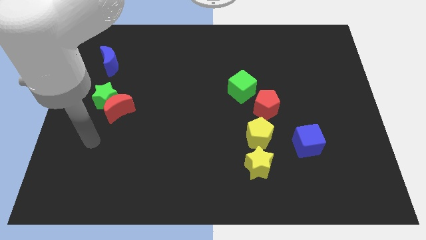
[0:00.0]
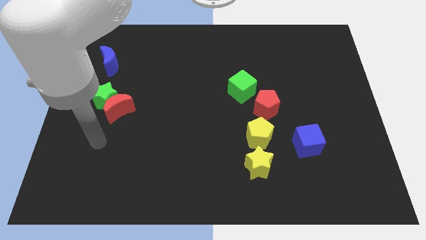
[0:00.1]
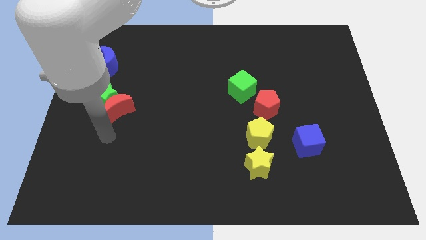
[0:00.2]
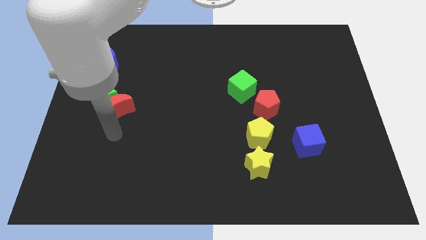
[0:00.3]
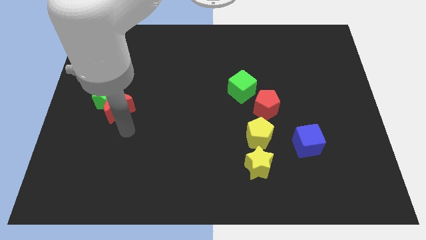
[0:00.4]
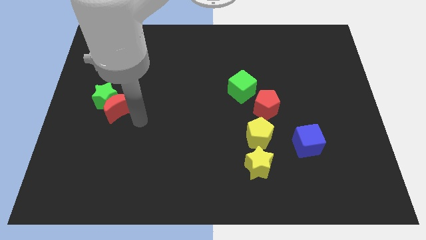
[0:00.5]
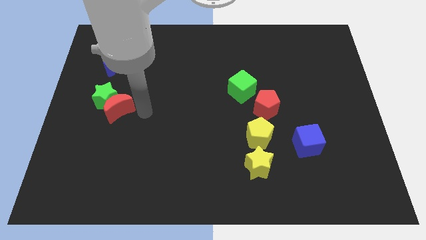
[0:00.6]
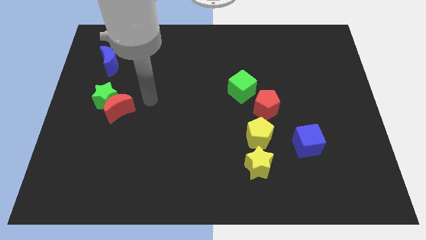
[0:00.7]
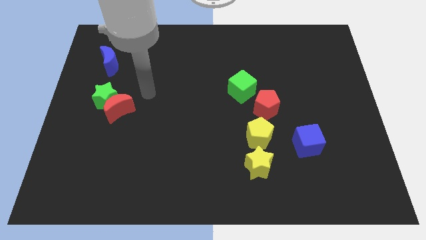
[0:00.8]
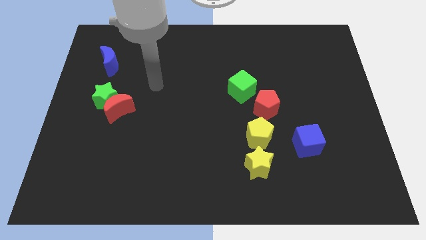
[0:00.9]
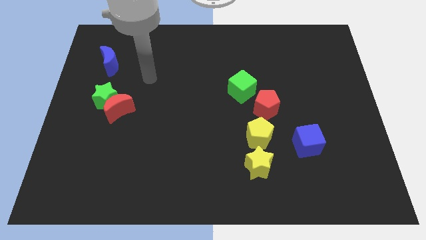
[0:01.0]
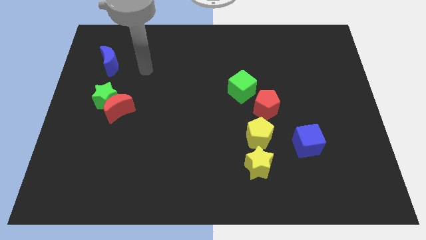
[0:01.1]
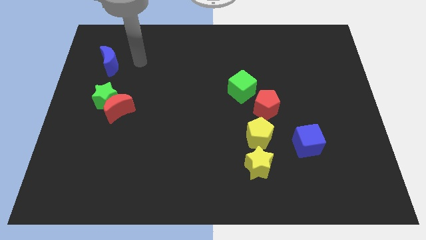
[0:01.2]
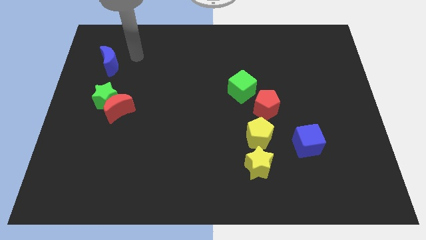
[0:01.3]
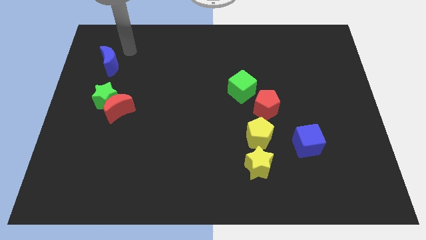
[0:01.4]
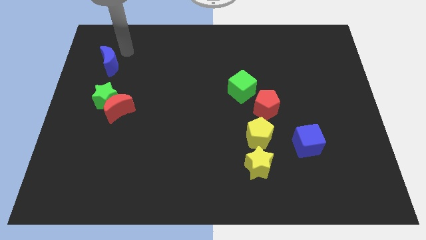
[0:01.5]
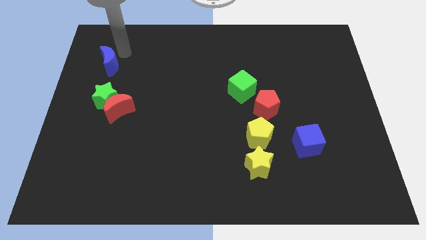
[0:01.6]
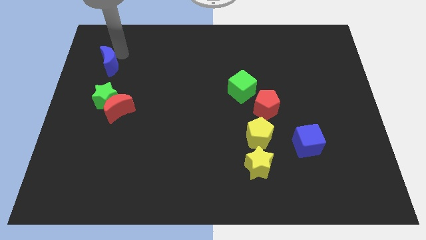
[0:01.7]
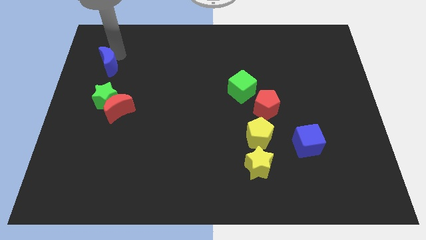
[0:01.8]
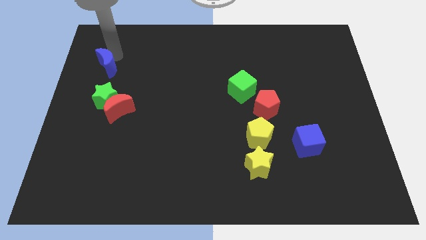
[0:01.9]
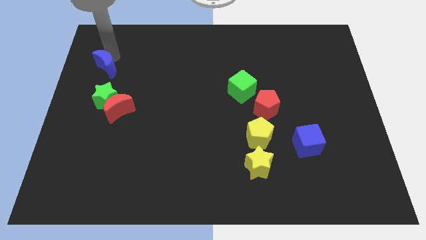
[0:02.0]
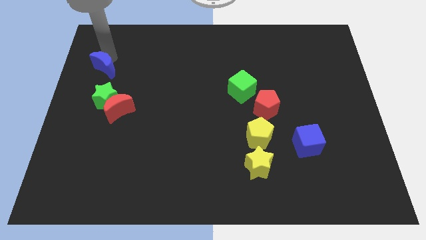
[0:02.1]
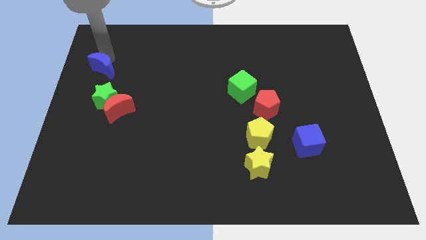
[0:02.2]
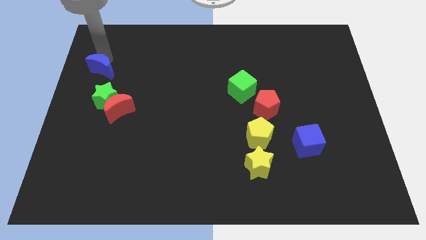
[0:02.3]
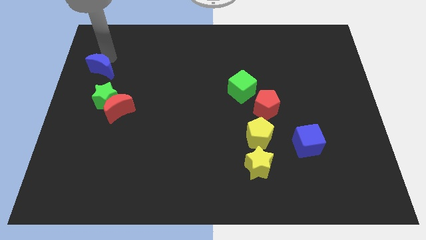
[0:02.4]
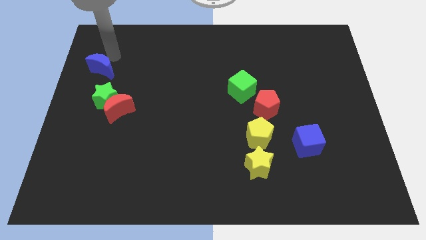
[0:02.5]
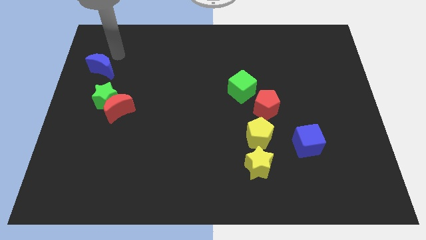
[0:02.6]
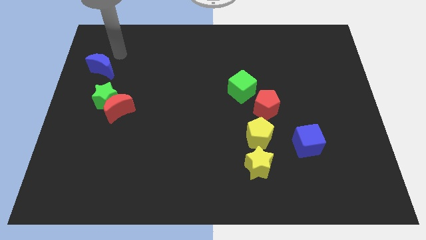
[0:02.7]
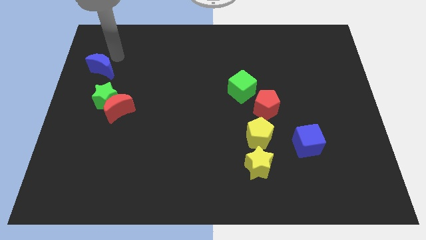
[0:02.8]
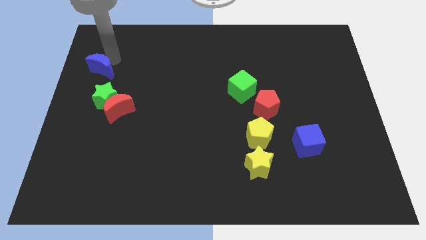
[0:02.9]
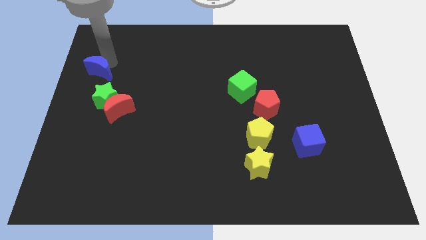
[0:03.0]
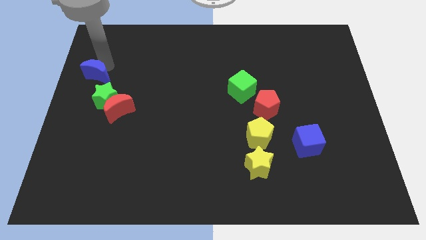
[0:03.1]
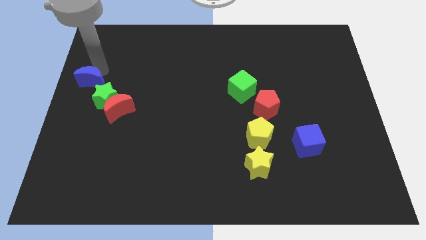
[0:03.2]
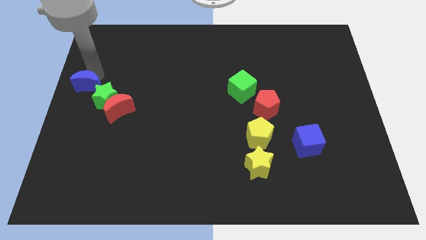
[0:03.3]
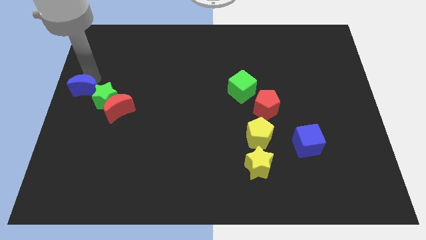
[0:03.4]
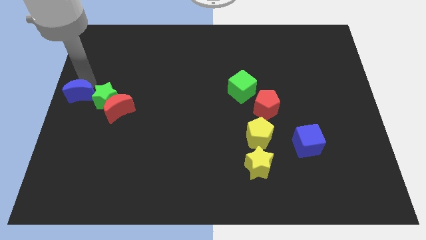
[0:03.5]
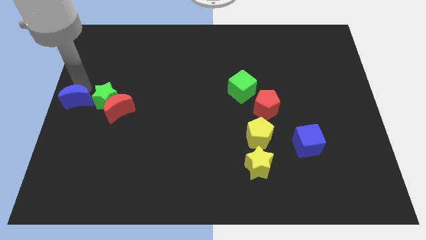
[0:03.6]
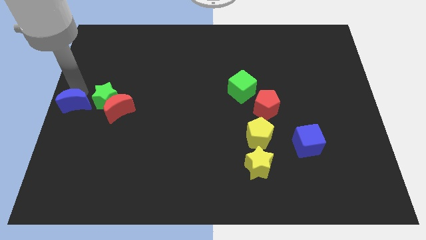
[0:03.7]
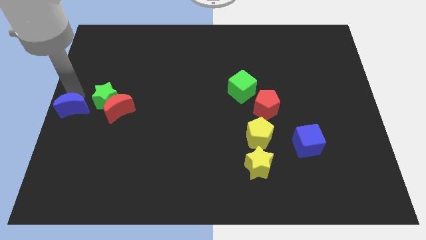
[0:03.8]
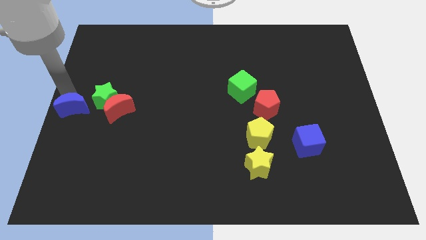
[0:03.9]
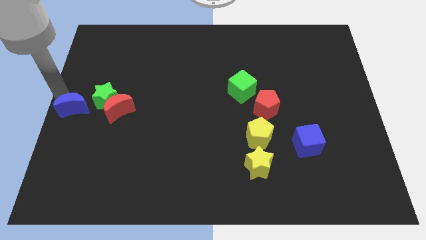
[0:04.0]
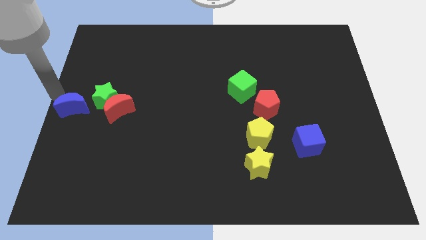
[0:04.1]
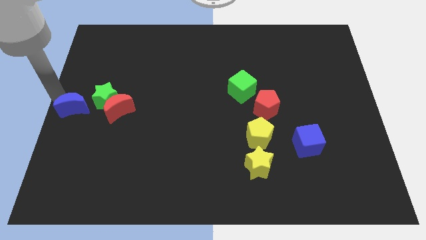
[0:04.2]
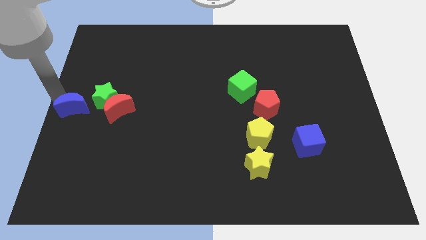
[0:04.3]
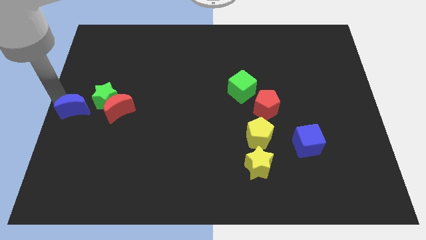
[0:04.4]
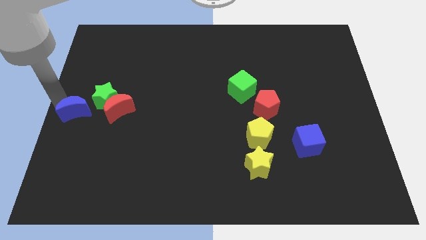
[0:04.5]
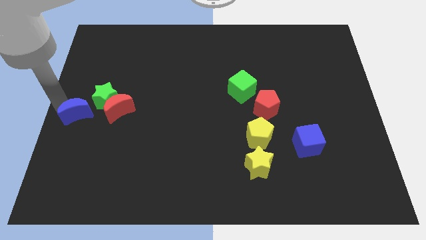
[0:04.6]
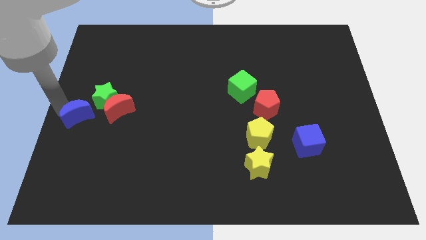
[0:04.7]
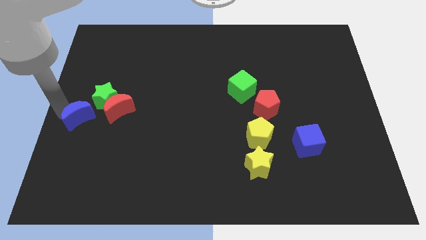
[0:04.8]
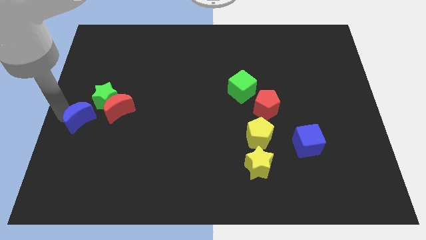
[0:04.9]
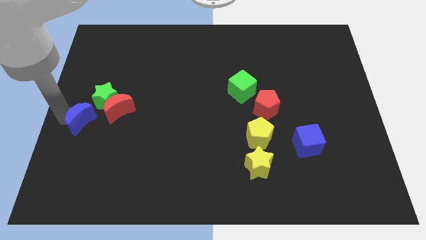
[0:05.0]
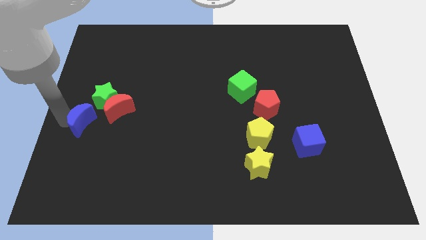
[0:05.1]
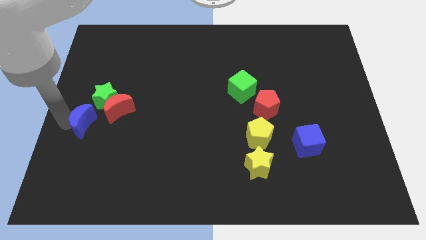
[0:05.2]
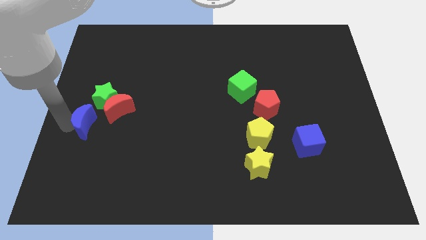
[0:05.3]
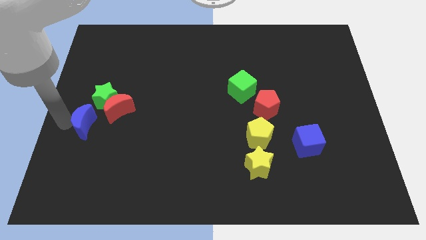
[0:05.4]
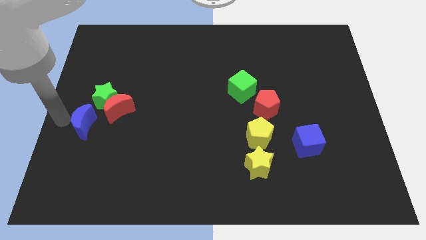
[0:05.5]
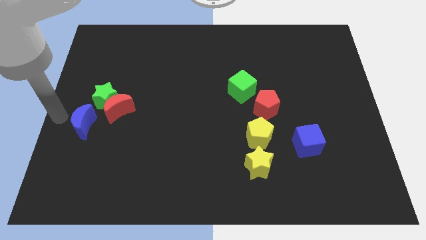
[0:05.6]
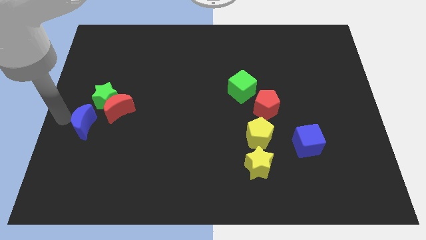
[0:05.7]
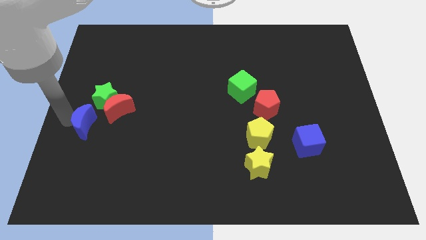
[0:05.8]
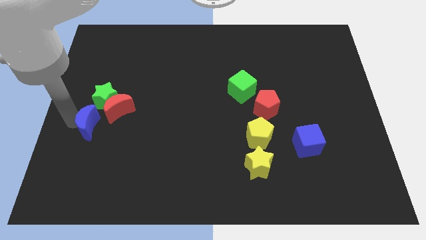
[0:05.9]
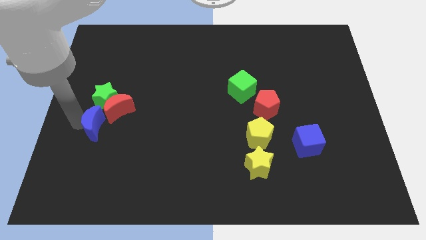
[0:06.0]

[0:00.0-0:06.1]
push the blue moon below the red moon

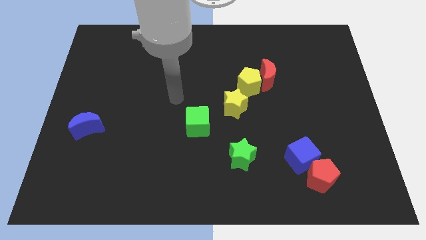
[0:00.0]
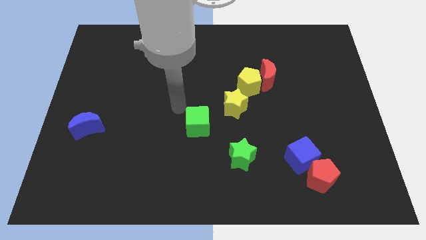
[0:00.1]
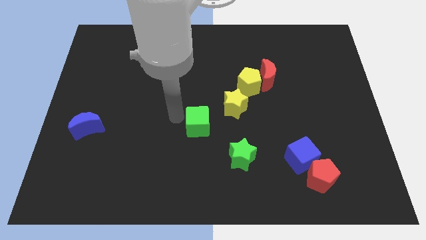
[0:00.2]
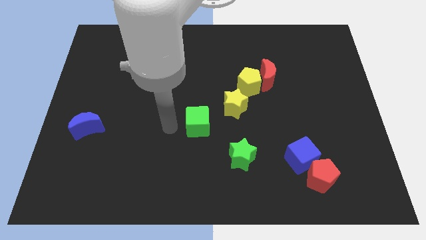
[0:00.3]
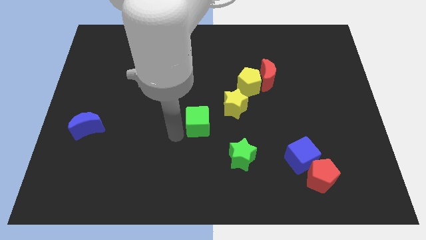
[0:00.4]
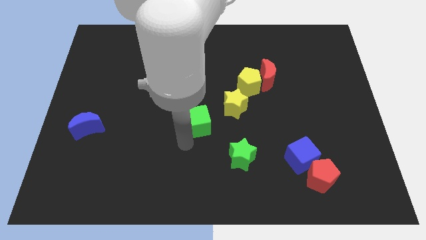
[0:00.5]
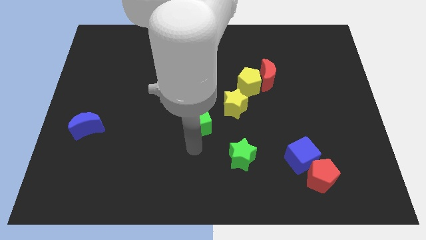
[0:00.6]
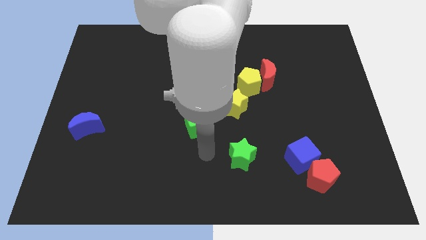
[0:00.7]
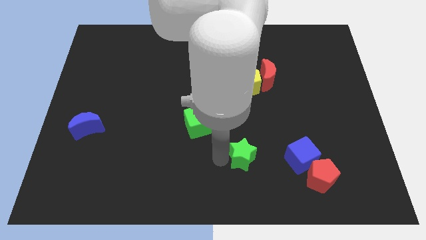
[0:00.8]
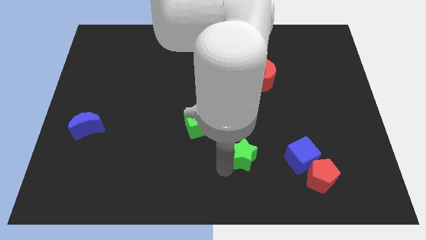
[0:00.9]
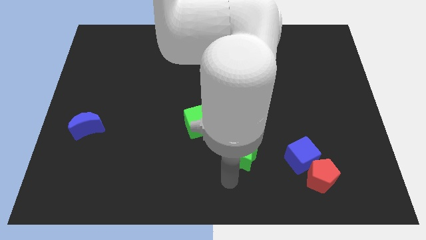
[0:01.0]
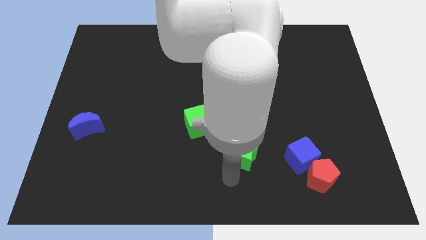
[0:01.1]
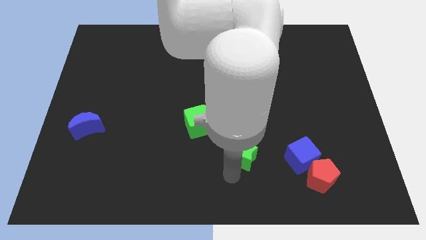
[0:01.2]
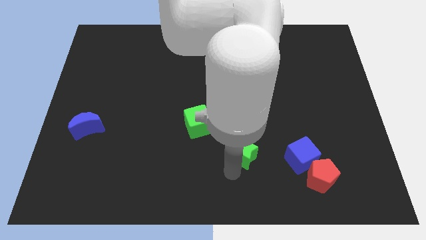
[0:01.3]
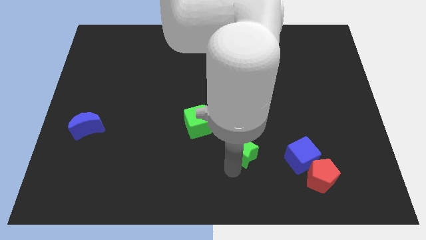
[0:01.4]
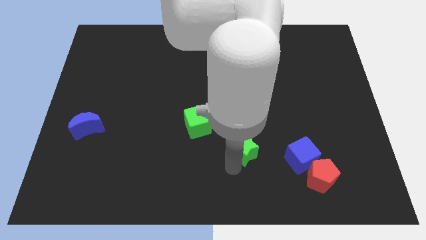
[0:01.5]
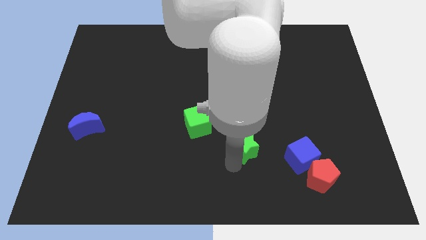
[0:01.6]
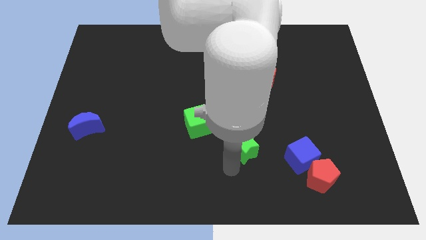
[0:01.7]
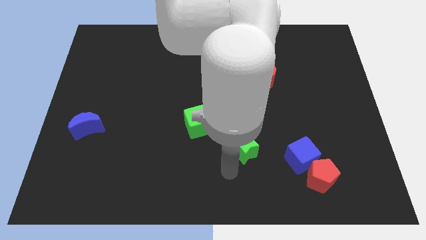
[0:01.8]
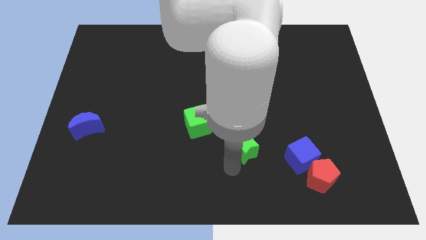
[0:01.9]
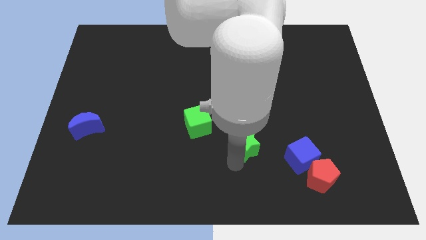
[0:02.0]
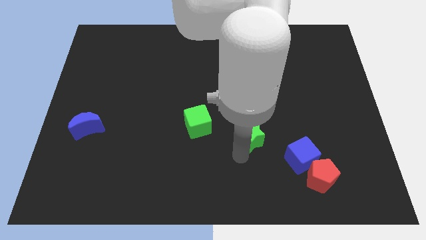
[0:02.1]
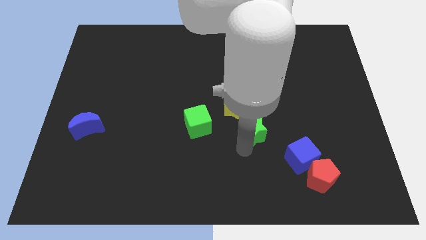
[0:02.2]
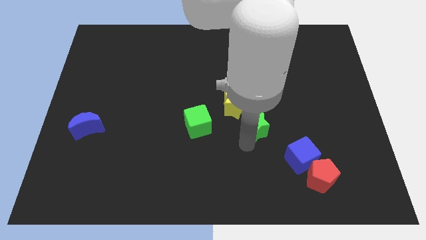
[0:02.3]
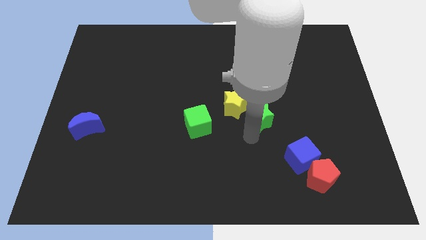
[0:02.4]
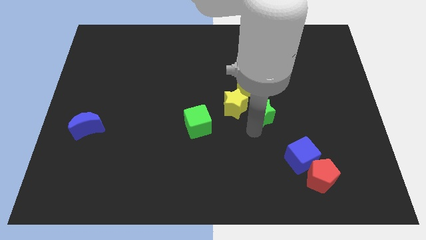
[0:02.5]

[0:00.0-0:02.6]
move the green star to the bottom right of the yellow pentagon
